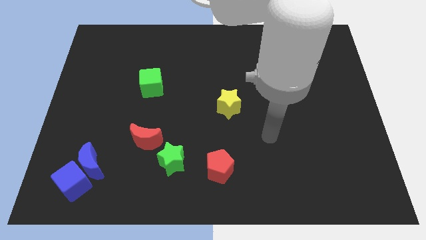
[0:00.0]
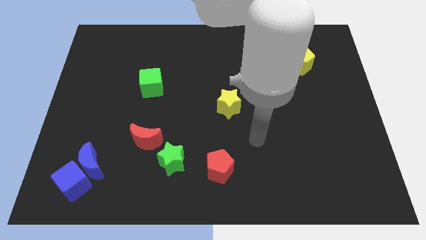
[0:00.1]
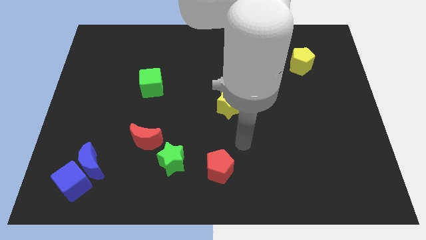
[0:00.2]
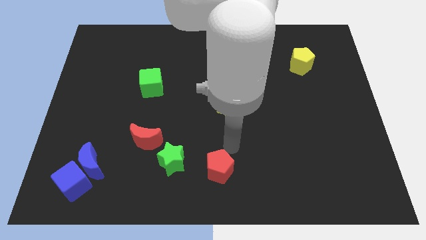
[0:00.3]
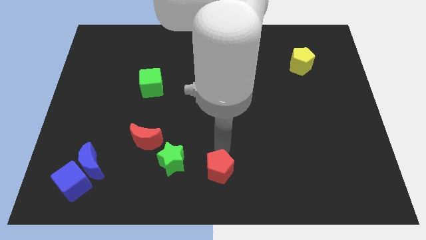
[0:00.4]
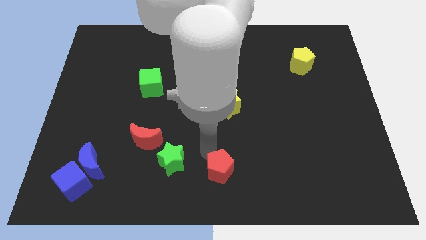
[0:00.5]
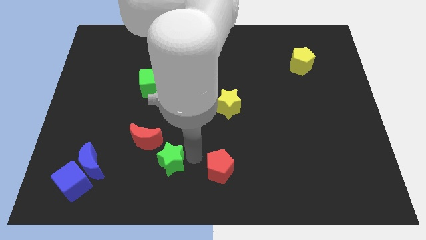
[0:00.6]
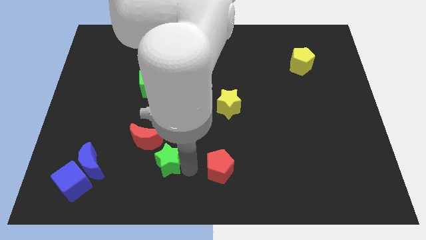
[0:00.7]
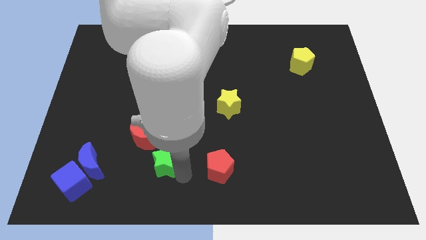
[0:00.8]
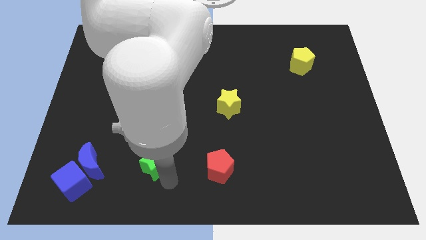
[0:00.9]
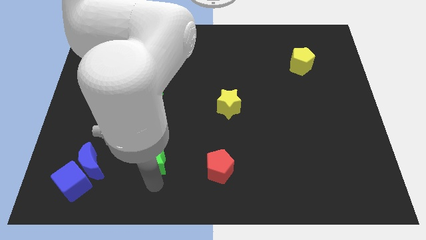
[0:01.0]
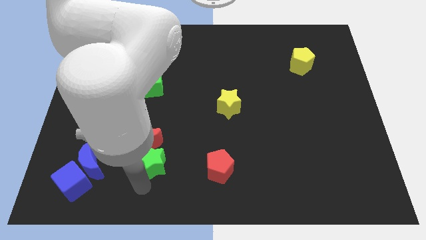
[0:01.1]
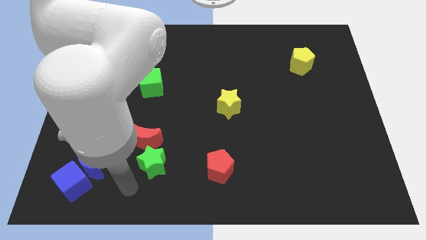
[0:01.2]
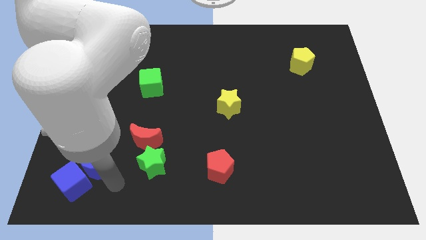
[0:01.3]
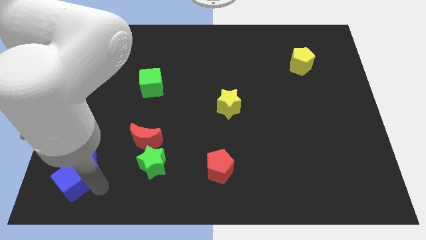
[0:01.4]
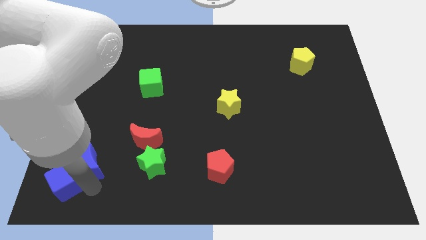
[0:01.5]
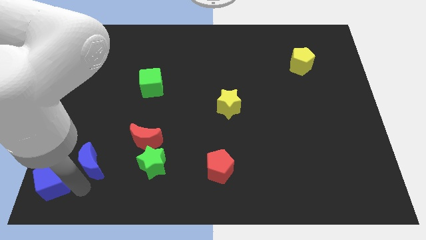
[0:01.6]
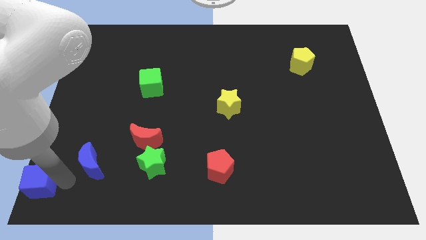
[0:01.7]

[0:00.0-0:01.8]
pull the blue moon apart from the blue cube

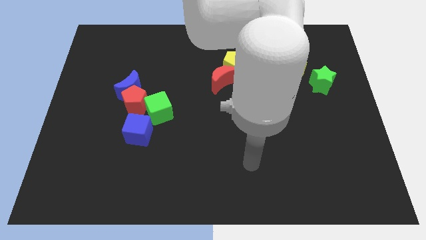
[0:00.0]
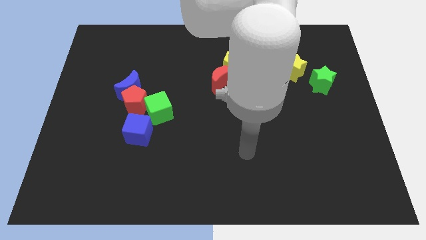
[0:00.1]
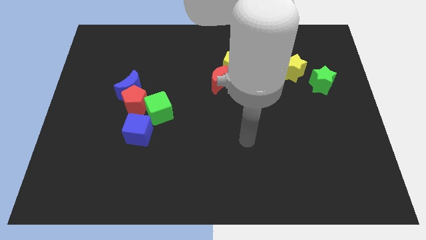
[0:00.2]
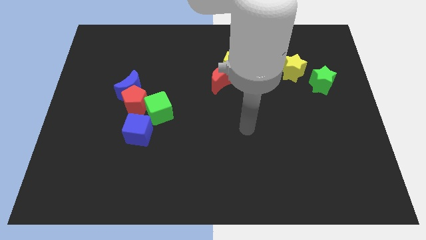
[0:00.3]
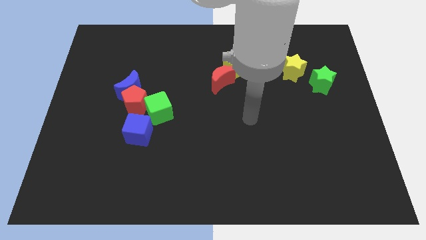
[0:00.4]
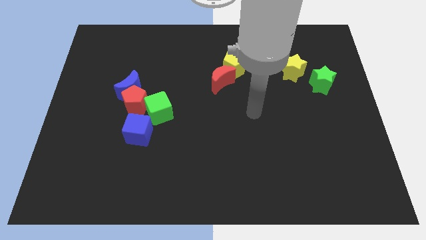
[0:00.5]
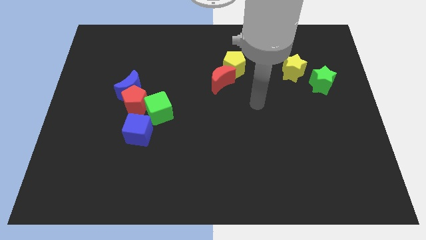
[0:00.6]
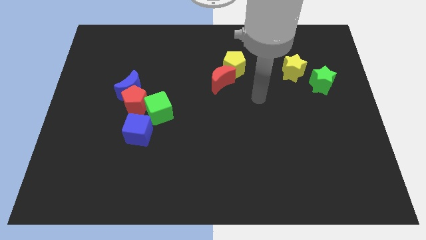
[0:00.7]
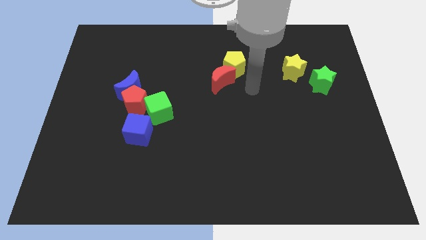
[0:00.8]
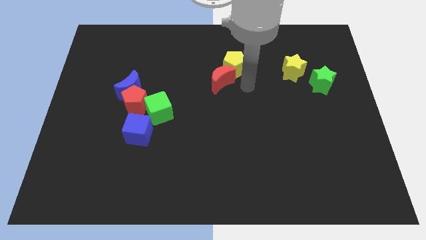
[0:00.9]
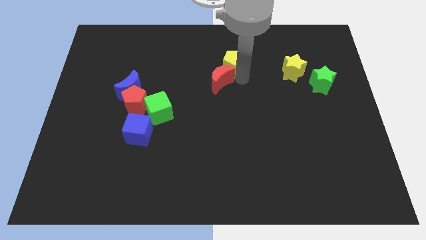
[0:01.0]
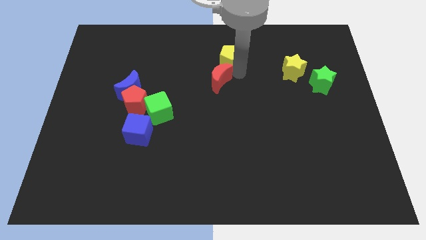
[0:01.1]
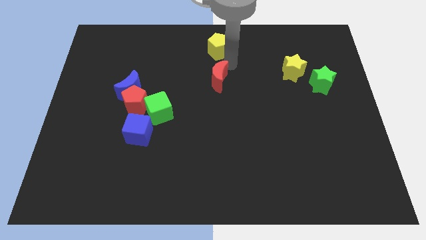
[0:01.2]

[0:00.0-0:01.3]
pull the red moon apart from the yellow pentagon

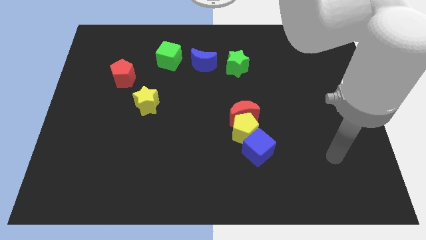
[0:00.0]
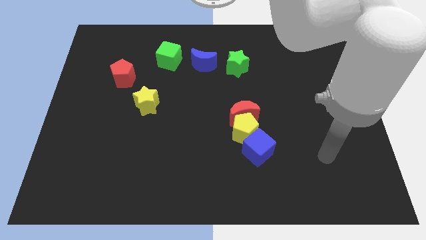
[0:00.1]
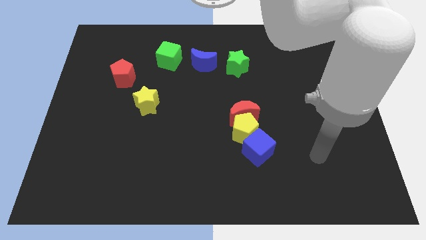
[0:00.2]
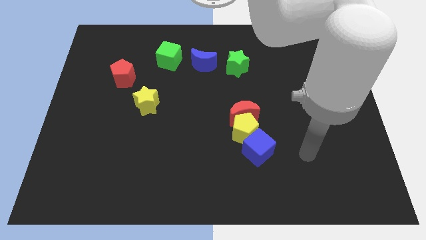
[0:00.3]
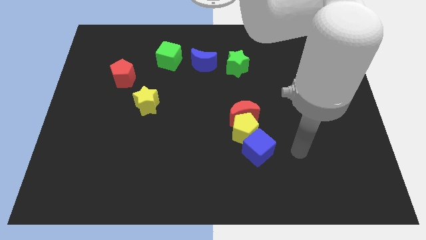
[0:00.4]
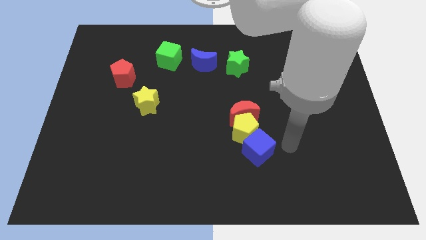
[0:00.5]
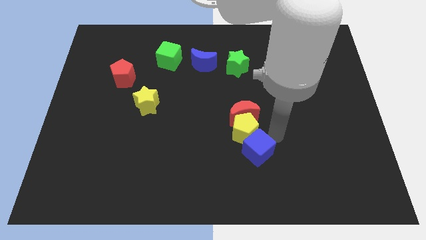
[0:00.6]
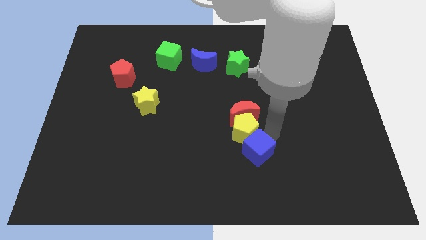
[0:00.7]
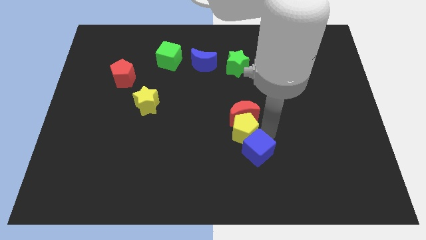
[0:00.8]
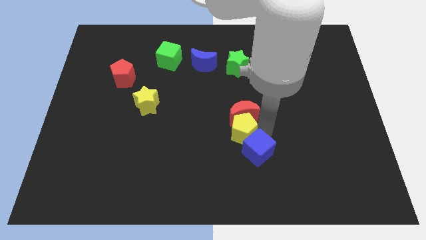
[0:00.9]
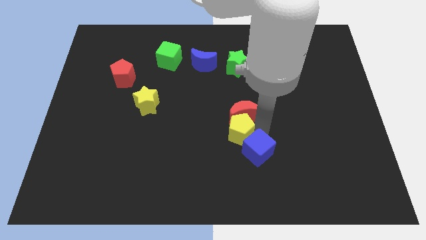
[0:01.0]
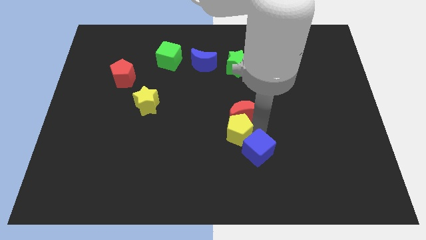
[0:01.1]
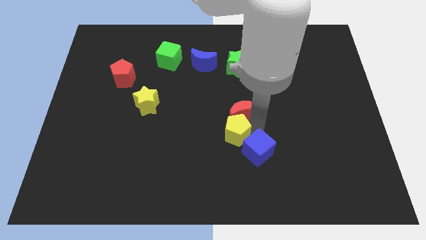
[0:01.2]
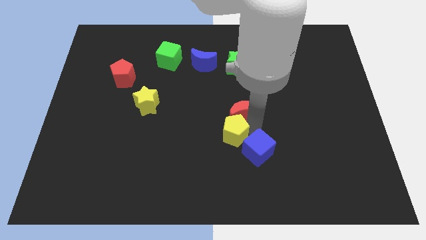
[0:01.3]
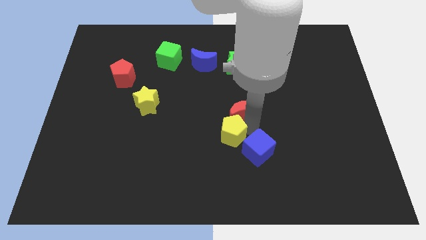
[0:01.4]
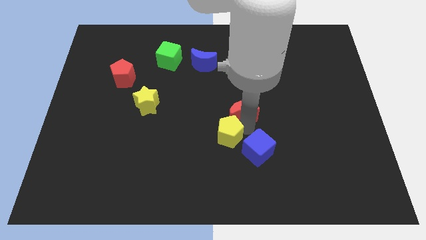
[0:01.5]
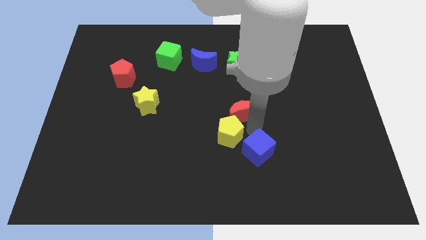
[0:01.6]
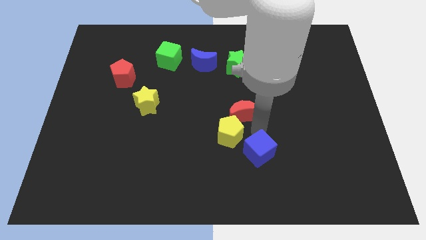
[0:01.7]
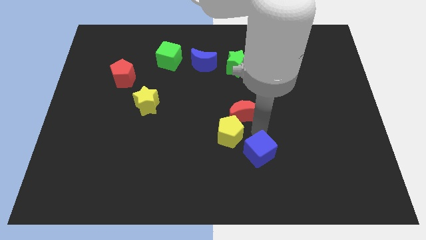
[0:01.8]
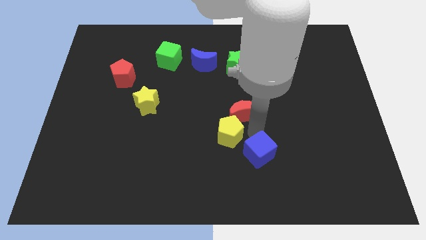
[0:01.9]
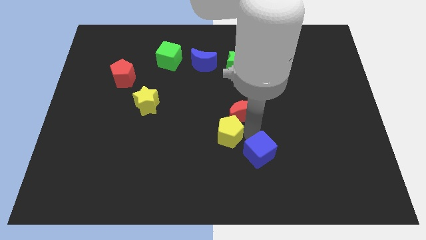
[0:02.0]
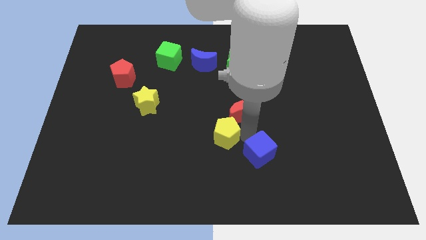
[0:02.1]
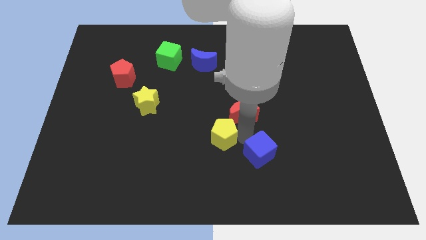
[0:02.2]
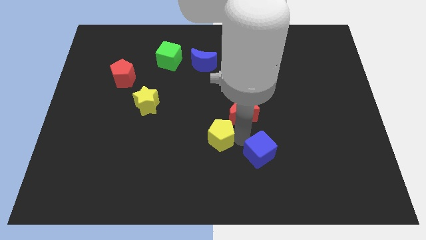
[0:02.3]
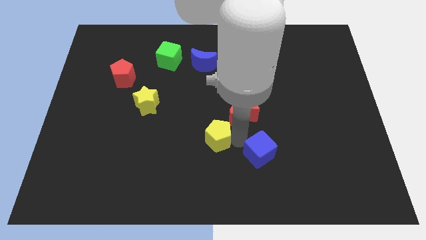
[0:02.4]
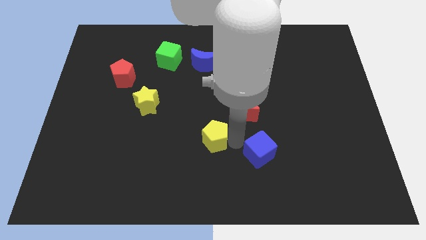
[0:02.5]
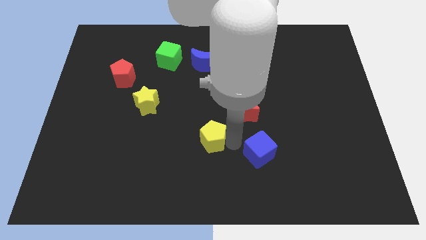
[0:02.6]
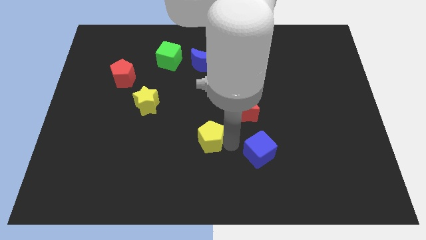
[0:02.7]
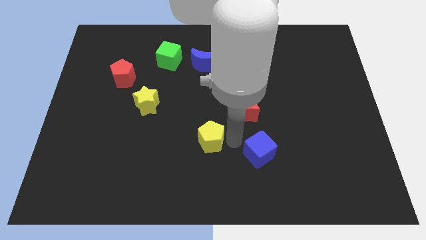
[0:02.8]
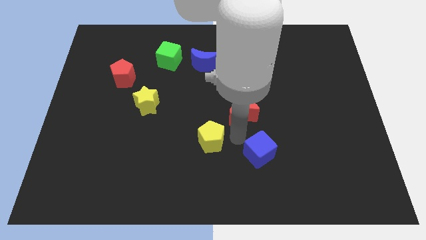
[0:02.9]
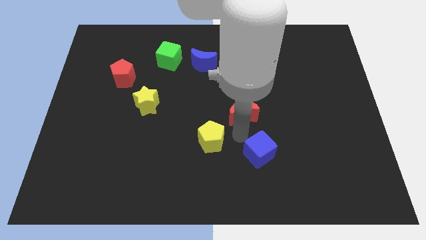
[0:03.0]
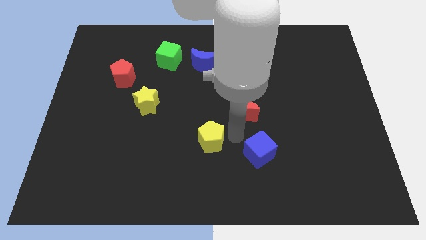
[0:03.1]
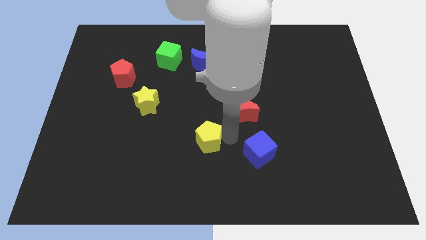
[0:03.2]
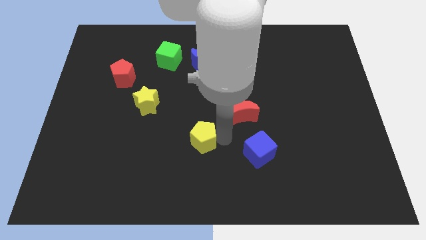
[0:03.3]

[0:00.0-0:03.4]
pull the yellow pentagon apart from the red moon and blue cube

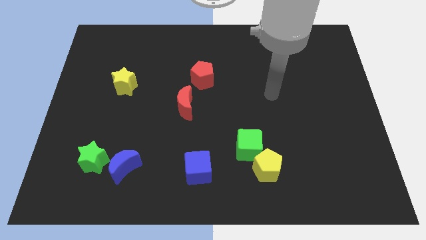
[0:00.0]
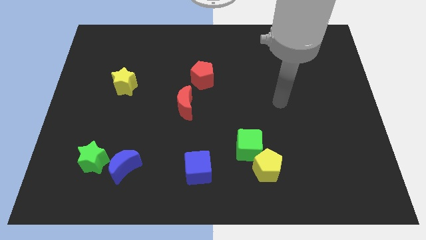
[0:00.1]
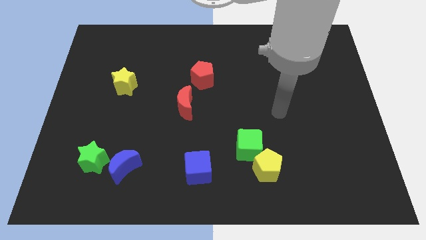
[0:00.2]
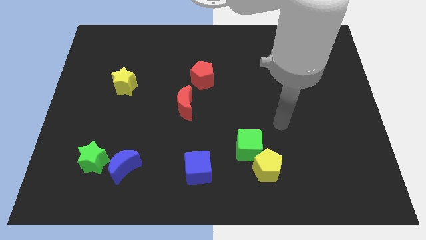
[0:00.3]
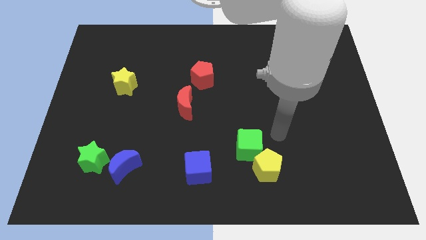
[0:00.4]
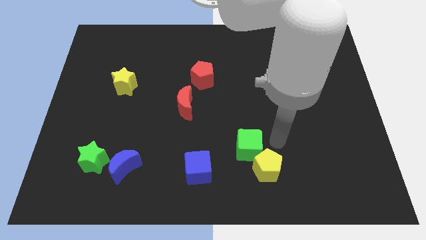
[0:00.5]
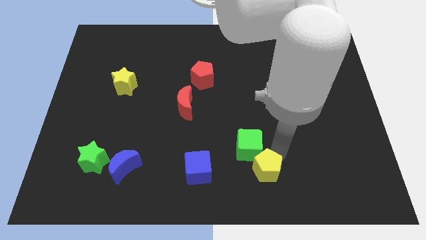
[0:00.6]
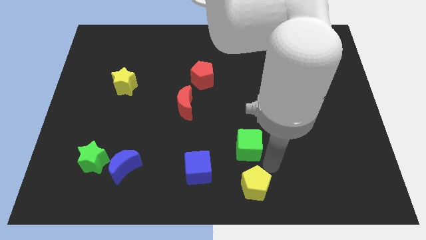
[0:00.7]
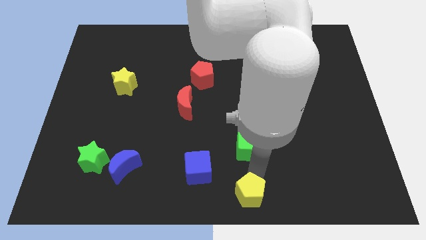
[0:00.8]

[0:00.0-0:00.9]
pull the green cube apart from the yellow pentagon

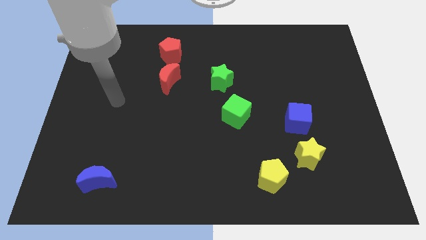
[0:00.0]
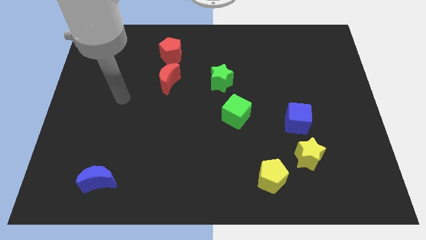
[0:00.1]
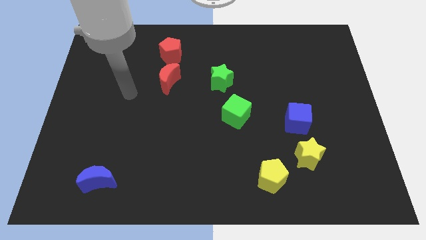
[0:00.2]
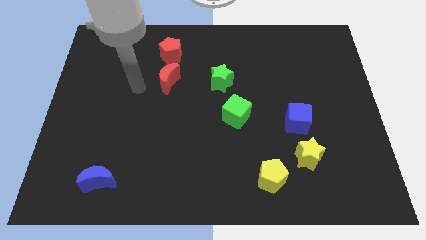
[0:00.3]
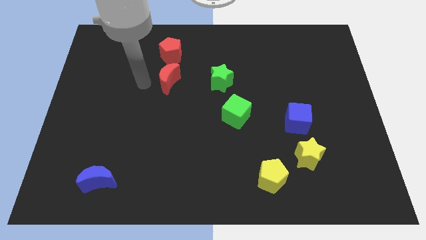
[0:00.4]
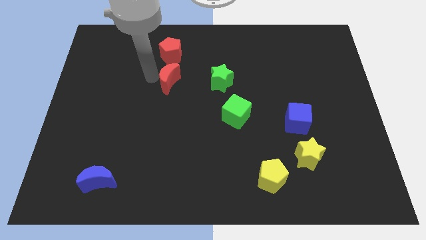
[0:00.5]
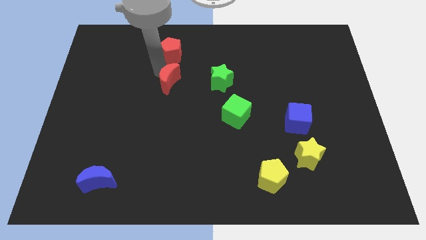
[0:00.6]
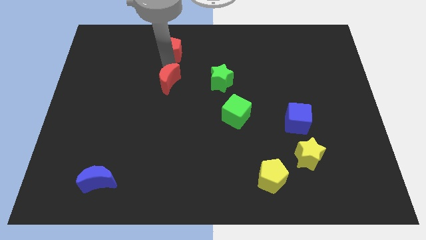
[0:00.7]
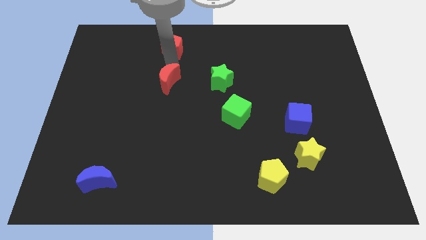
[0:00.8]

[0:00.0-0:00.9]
pull the red moon apart from the red pentagon

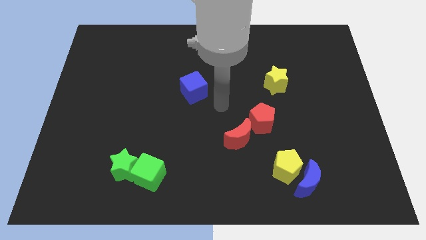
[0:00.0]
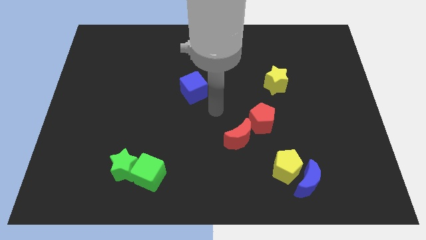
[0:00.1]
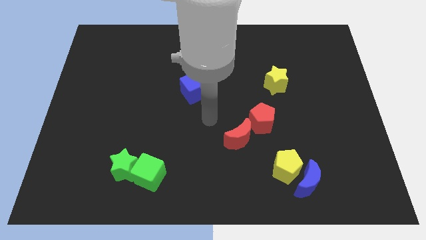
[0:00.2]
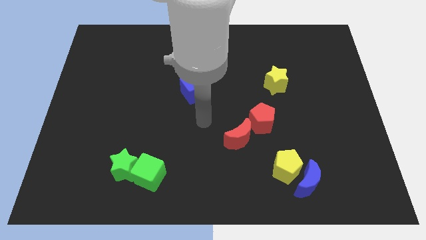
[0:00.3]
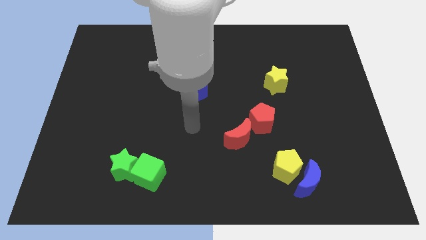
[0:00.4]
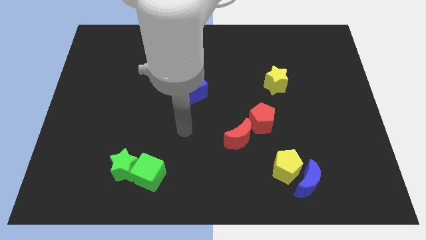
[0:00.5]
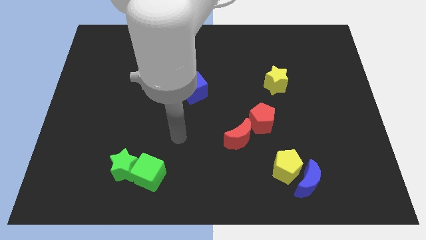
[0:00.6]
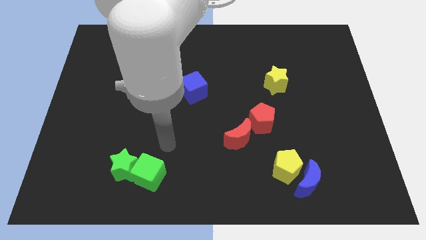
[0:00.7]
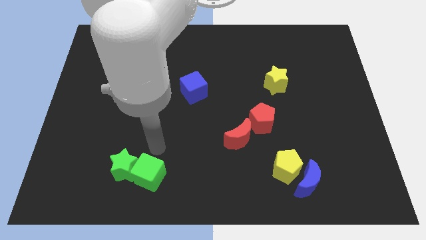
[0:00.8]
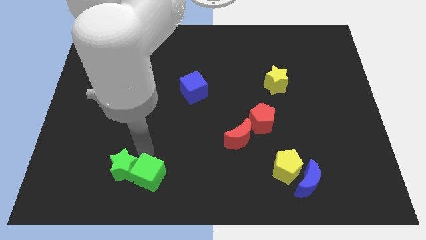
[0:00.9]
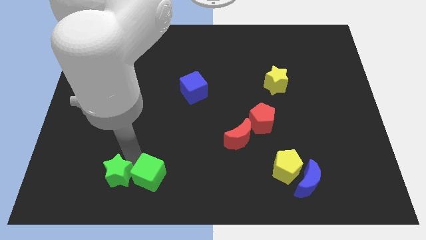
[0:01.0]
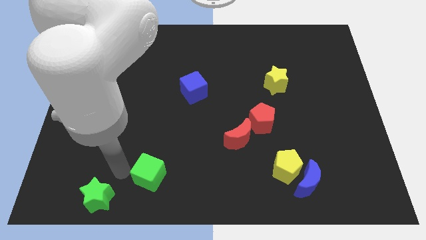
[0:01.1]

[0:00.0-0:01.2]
move the green cube away from the green star
